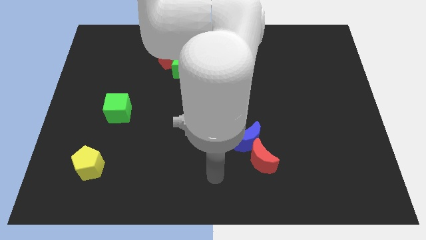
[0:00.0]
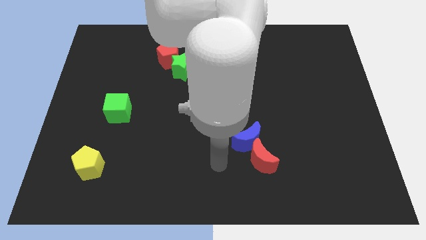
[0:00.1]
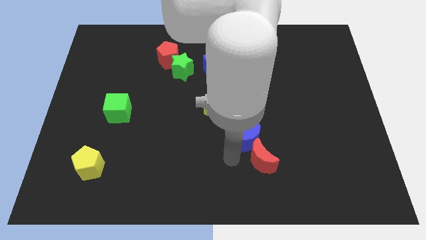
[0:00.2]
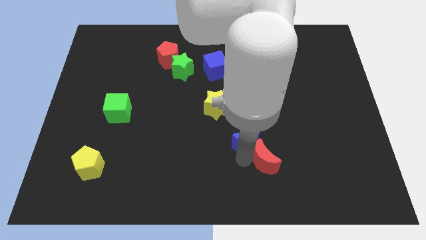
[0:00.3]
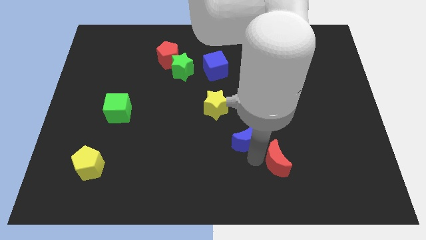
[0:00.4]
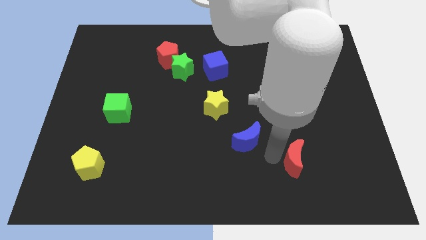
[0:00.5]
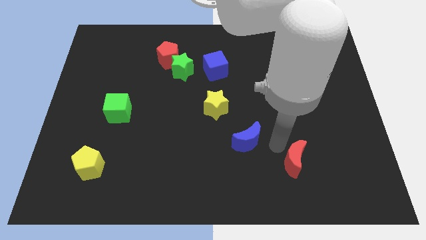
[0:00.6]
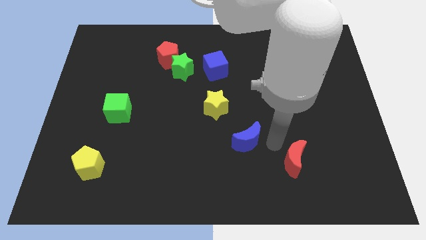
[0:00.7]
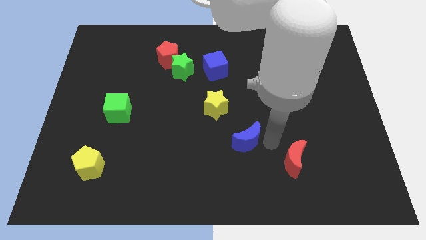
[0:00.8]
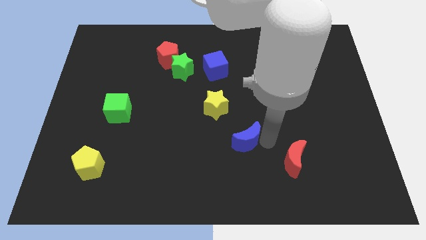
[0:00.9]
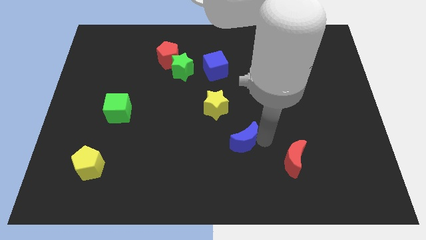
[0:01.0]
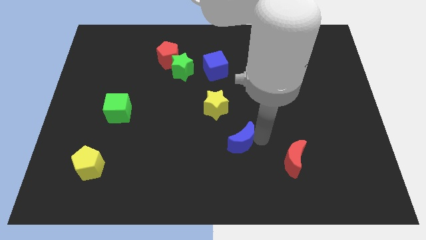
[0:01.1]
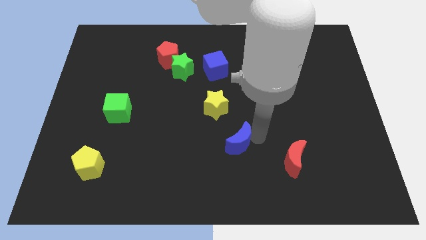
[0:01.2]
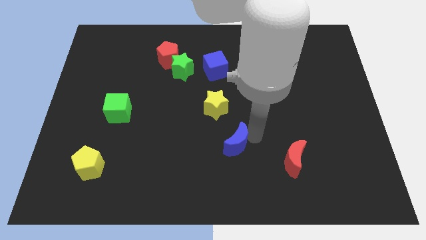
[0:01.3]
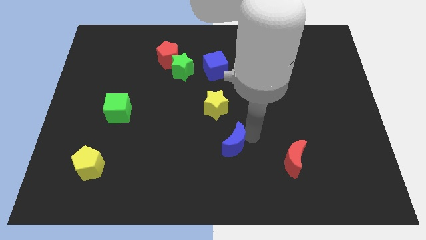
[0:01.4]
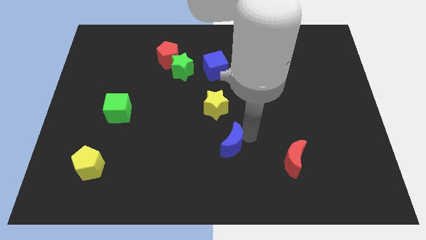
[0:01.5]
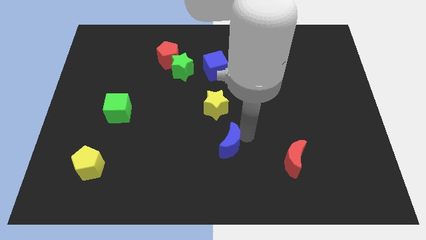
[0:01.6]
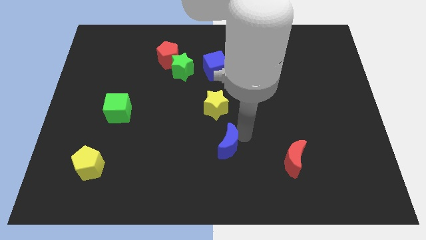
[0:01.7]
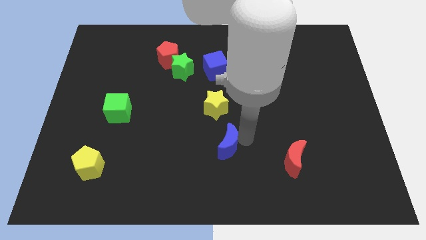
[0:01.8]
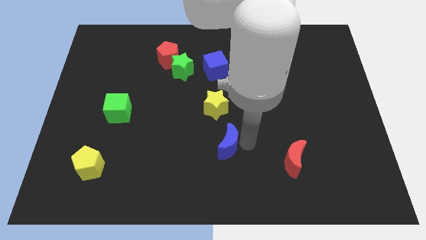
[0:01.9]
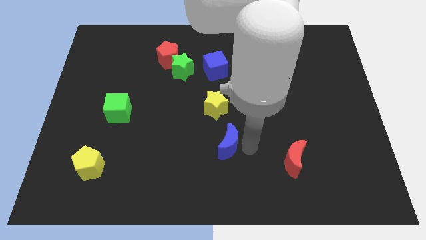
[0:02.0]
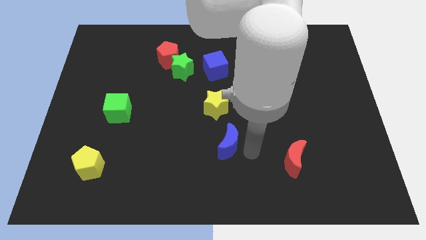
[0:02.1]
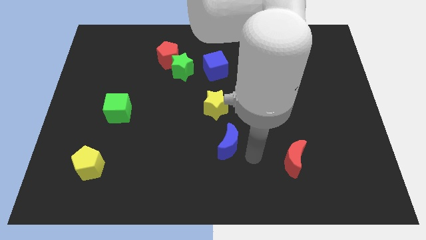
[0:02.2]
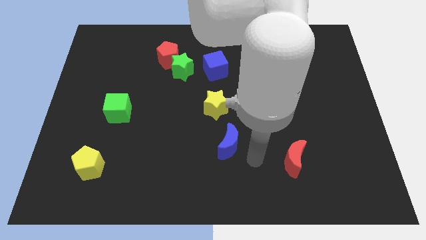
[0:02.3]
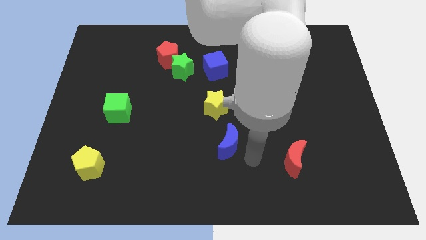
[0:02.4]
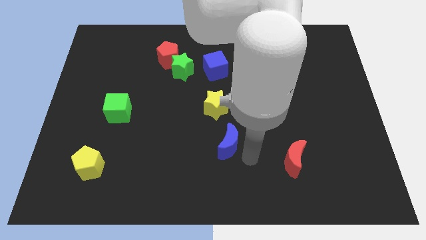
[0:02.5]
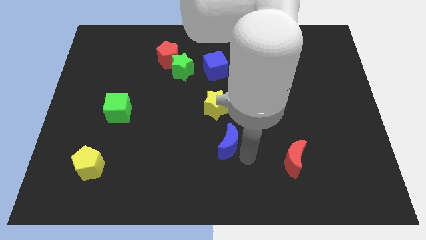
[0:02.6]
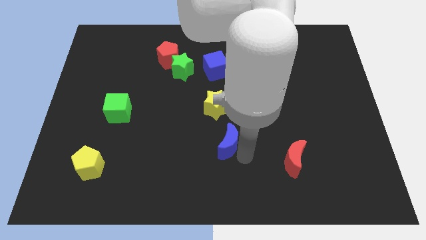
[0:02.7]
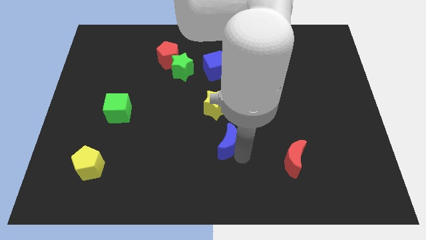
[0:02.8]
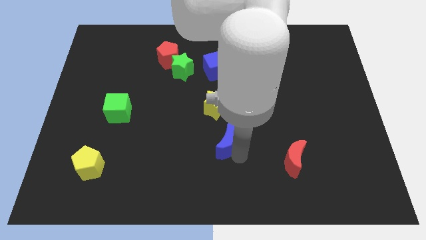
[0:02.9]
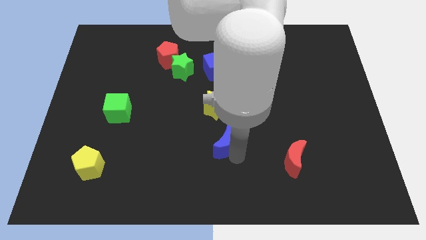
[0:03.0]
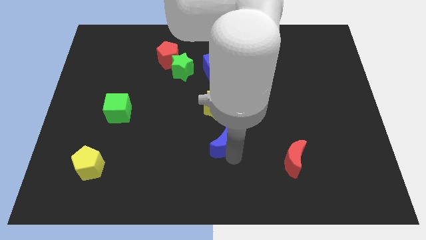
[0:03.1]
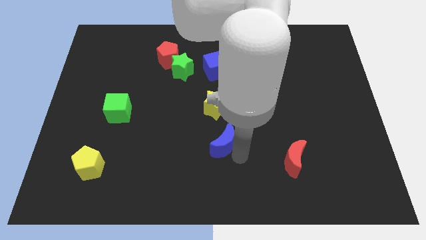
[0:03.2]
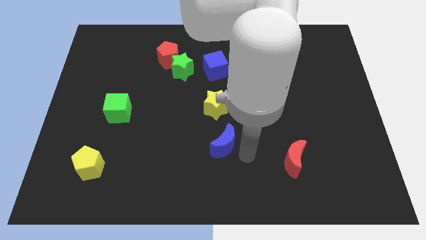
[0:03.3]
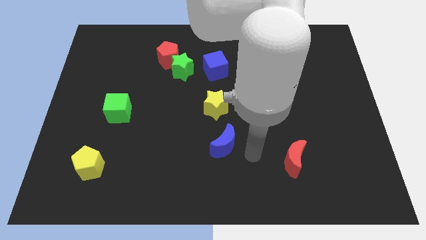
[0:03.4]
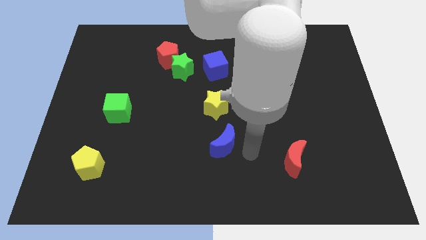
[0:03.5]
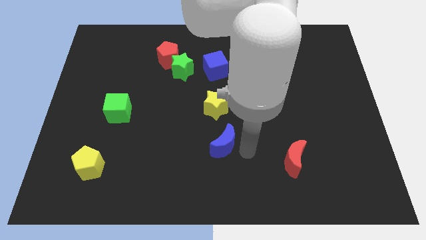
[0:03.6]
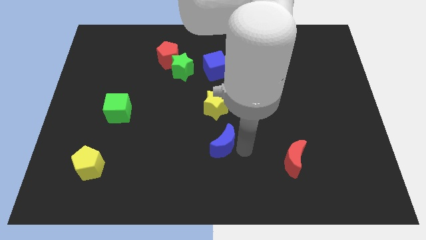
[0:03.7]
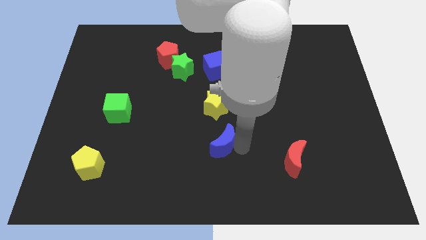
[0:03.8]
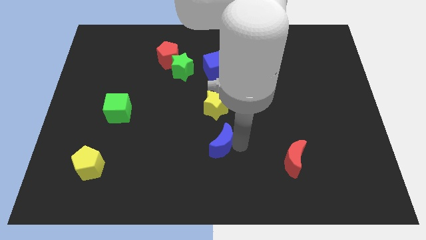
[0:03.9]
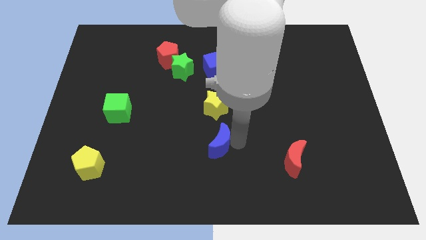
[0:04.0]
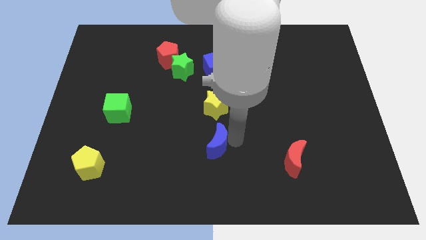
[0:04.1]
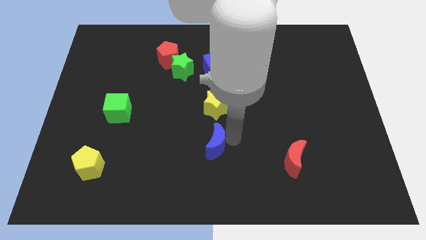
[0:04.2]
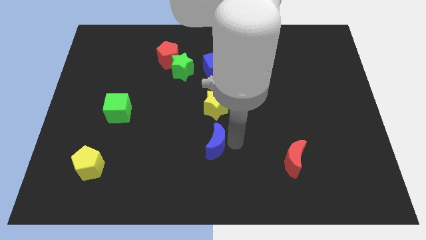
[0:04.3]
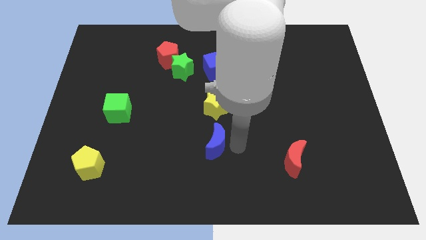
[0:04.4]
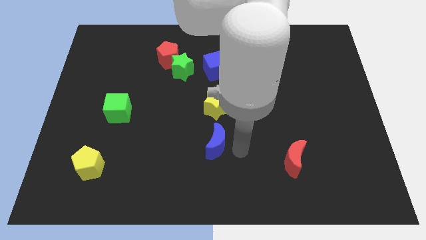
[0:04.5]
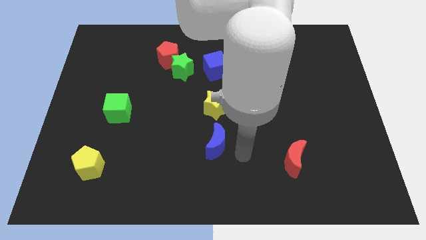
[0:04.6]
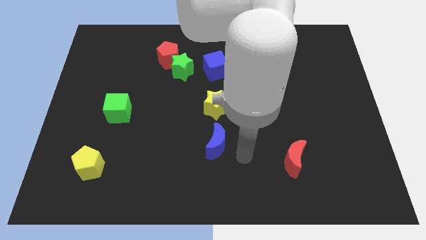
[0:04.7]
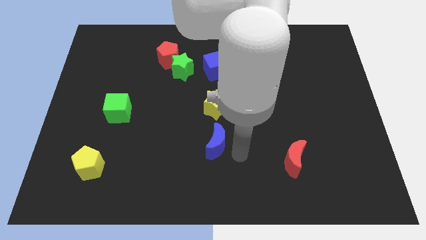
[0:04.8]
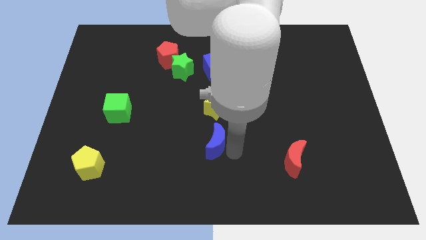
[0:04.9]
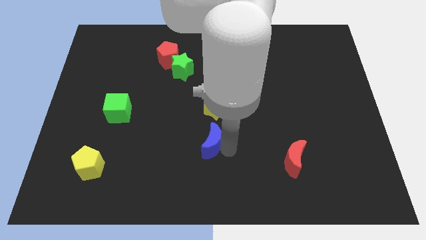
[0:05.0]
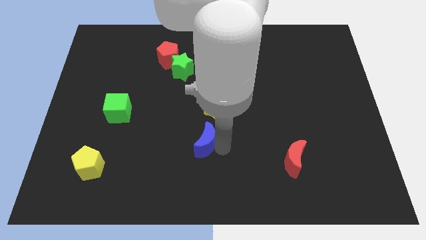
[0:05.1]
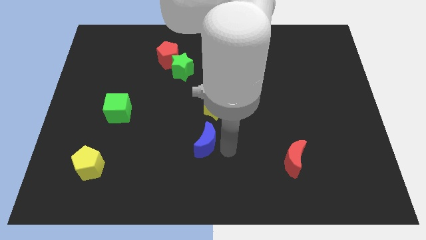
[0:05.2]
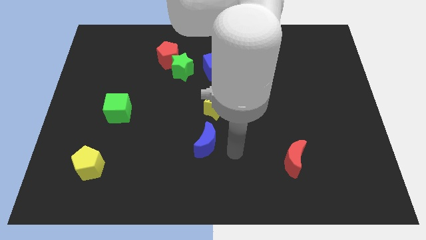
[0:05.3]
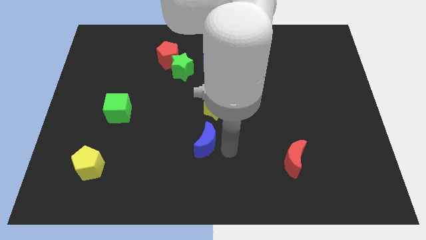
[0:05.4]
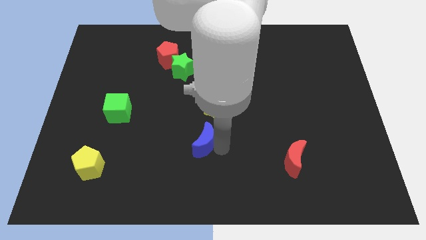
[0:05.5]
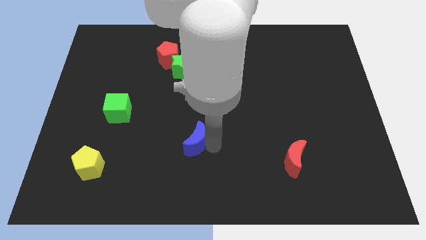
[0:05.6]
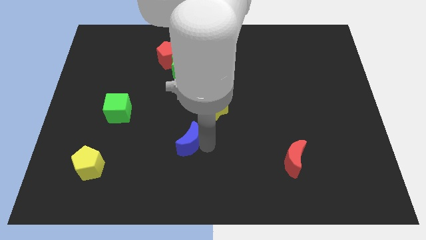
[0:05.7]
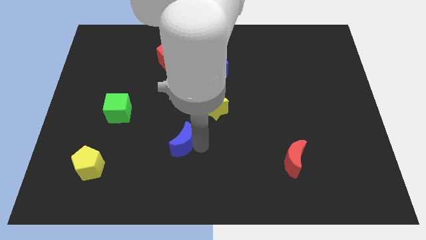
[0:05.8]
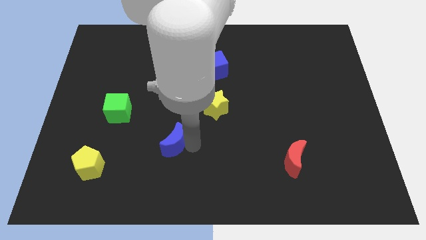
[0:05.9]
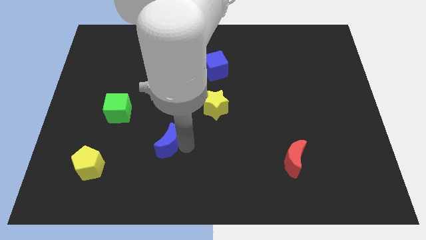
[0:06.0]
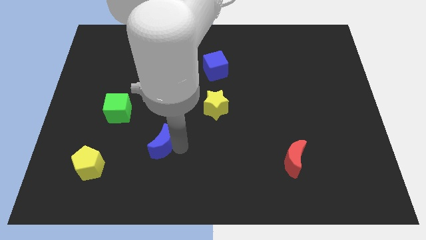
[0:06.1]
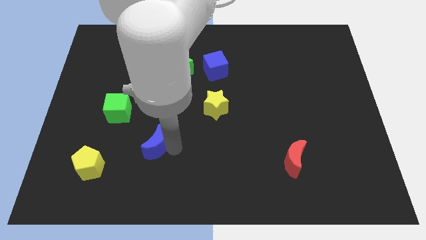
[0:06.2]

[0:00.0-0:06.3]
move the blue moon to the left

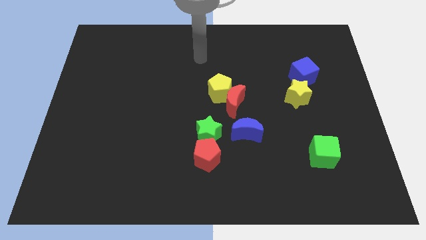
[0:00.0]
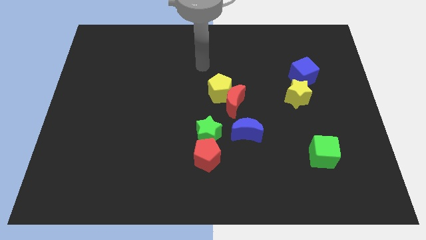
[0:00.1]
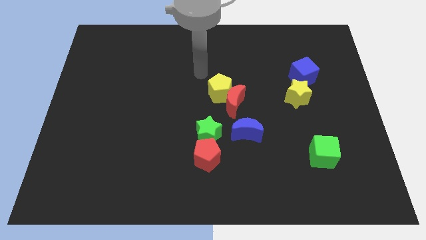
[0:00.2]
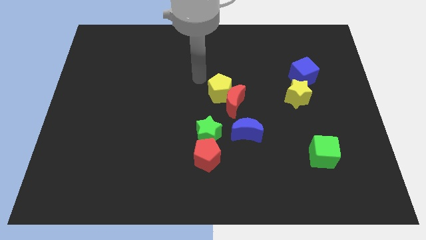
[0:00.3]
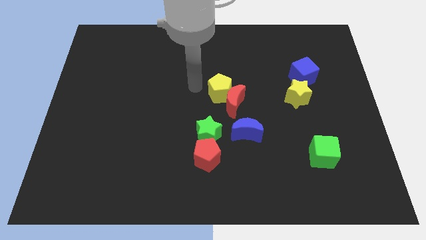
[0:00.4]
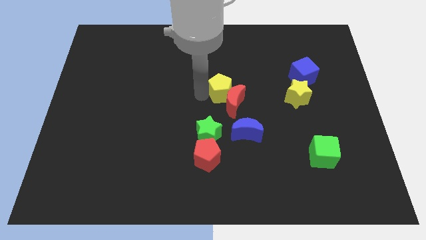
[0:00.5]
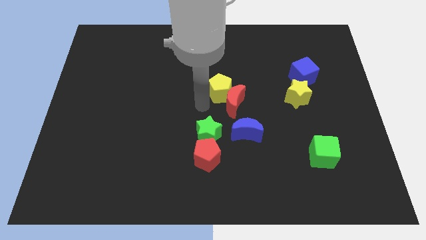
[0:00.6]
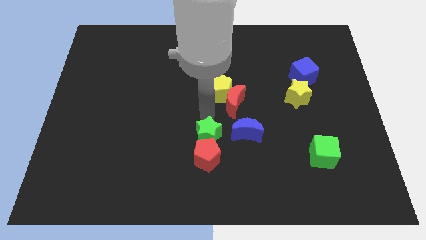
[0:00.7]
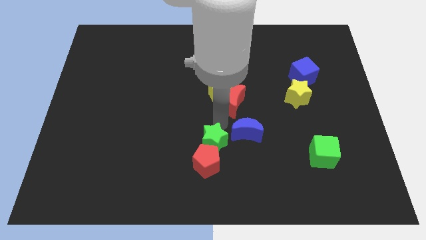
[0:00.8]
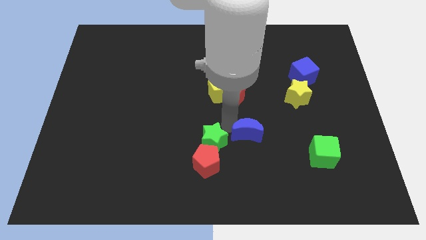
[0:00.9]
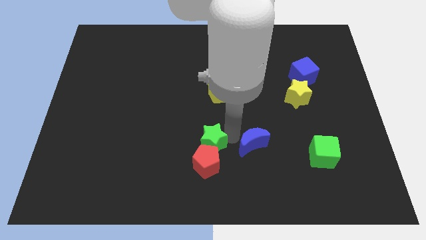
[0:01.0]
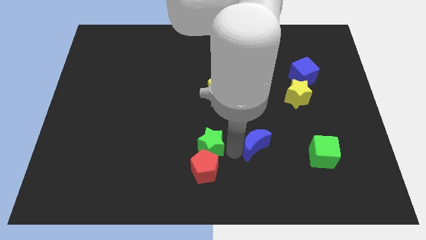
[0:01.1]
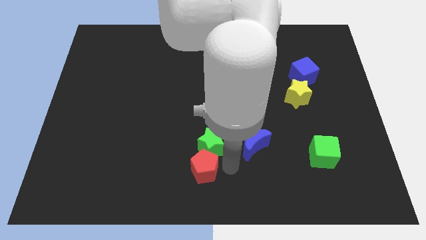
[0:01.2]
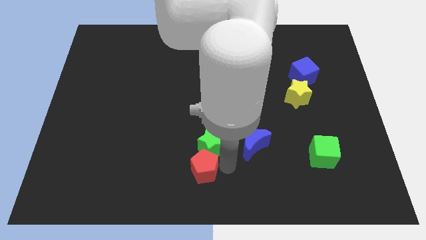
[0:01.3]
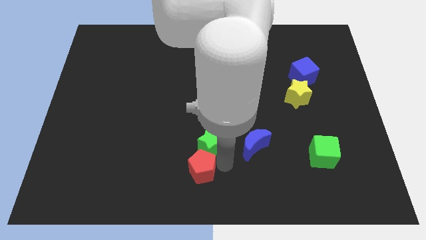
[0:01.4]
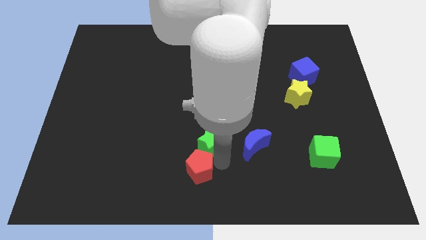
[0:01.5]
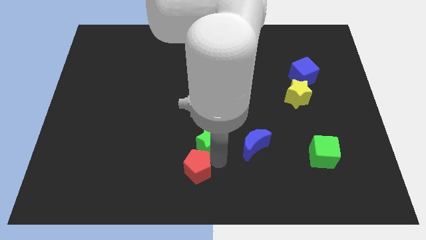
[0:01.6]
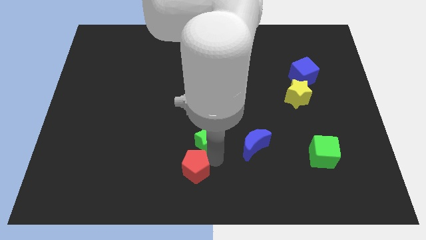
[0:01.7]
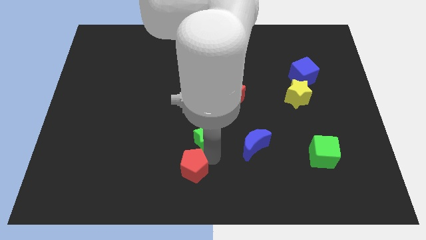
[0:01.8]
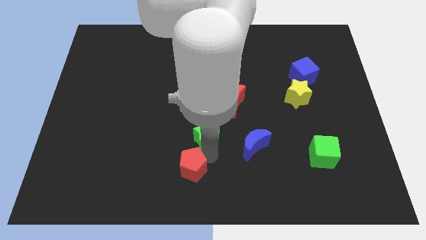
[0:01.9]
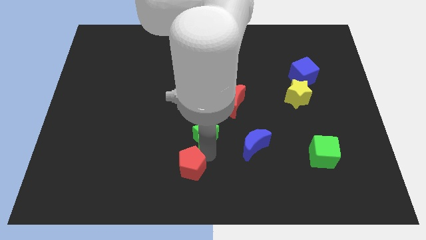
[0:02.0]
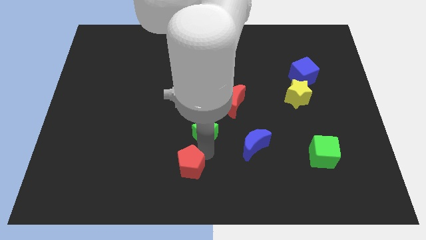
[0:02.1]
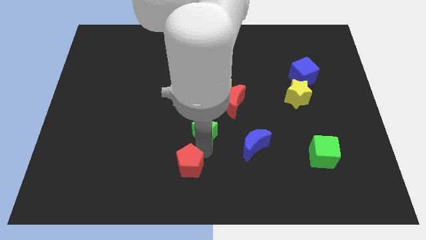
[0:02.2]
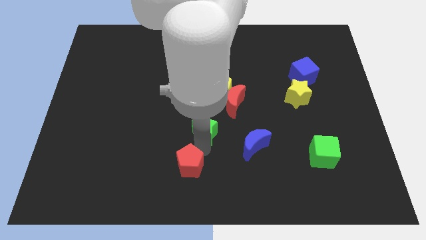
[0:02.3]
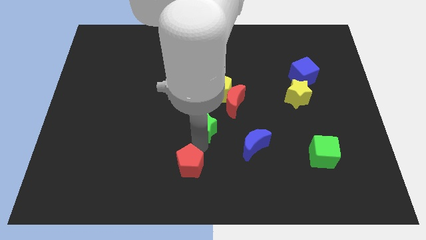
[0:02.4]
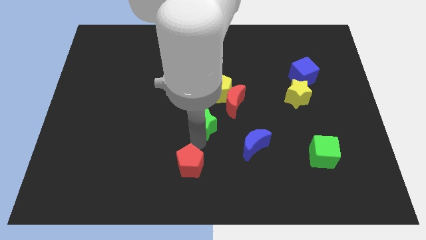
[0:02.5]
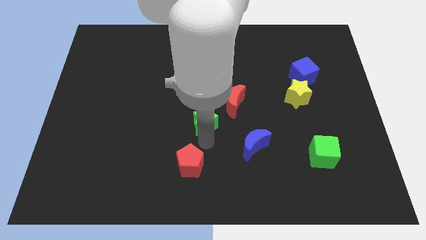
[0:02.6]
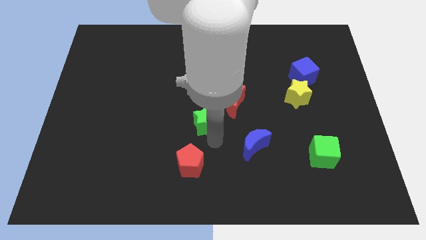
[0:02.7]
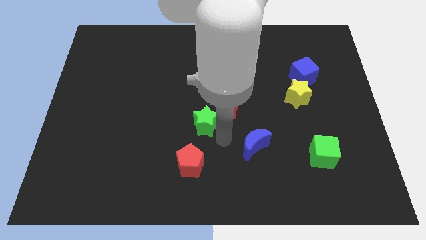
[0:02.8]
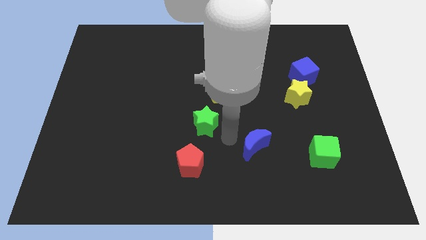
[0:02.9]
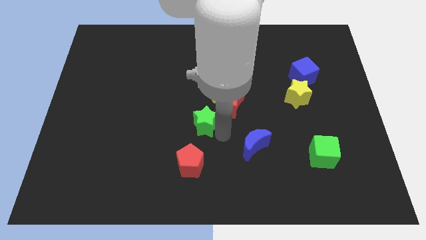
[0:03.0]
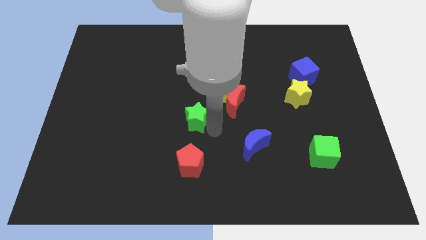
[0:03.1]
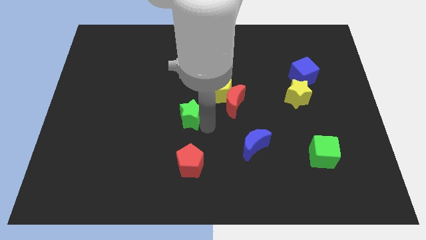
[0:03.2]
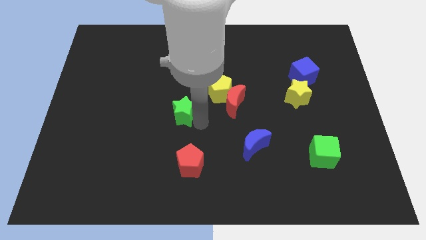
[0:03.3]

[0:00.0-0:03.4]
move the green star diagonally up and left a little
